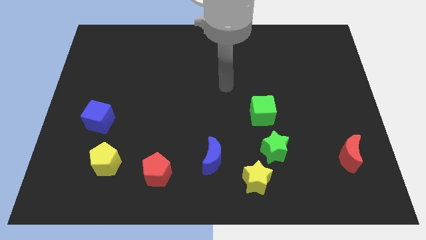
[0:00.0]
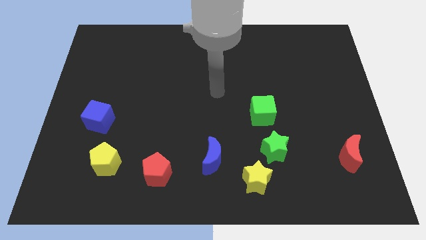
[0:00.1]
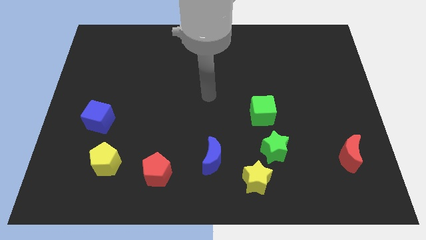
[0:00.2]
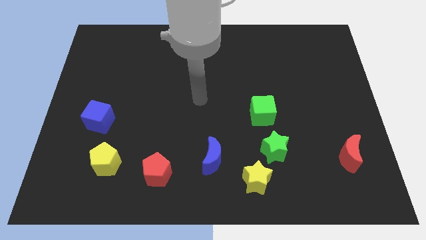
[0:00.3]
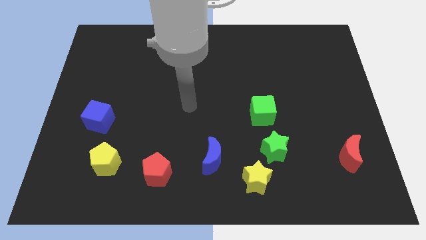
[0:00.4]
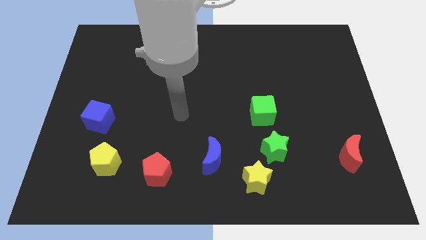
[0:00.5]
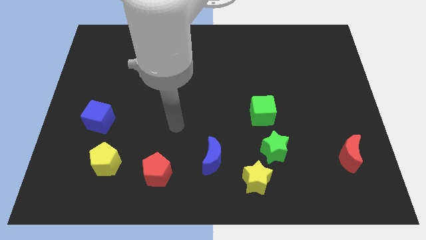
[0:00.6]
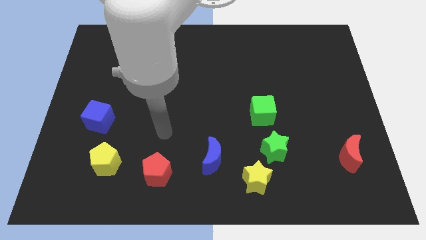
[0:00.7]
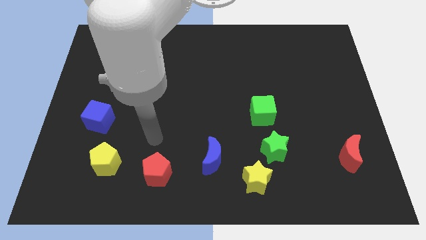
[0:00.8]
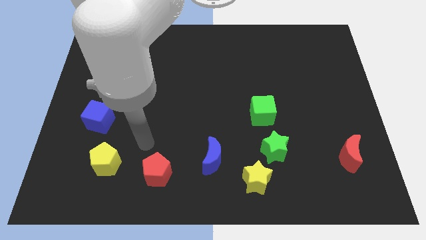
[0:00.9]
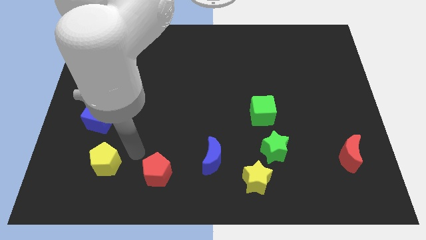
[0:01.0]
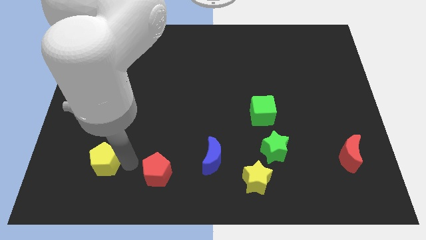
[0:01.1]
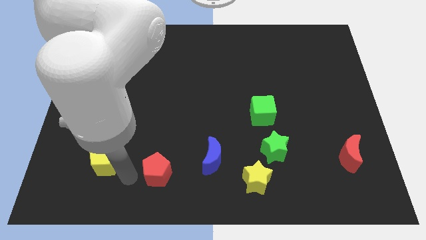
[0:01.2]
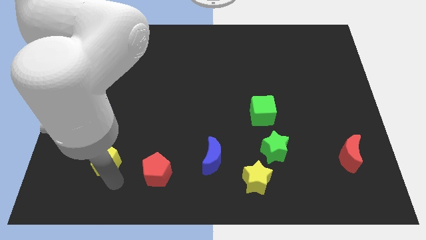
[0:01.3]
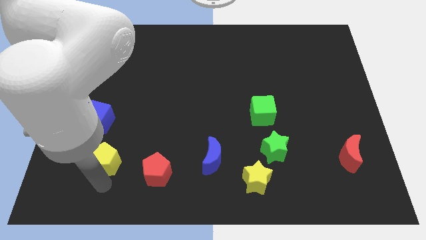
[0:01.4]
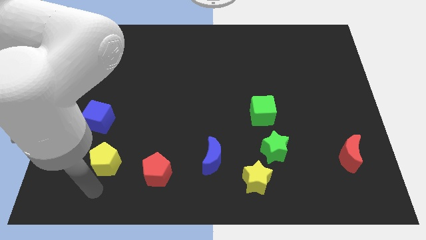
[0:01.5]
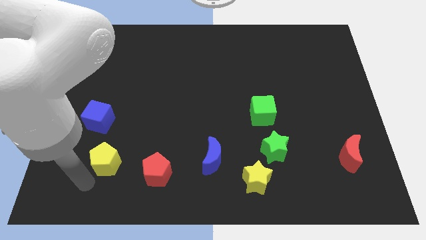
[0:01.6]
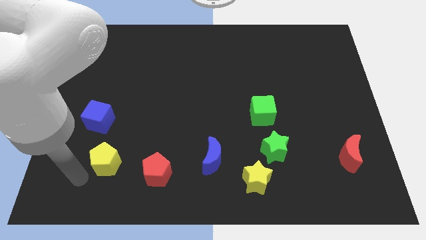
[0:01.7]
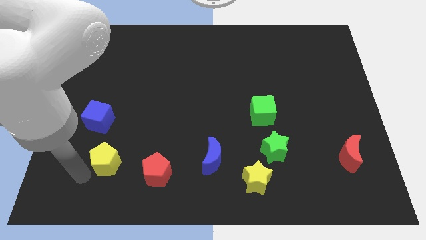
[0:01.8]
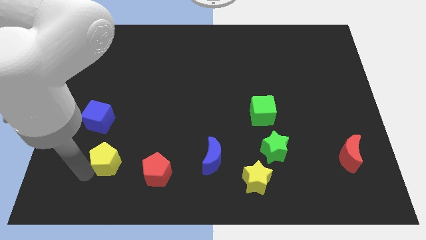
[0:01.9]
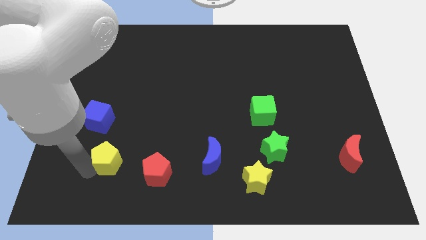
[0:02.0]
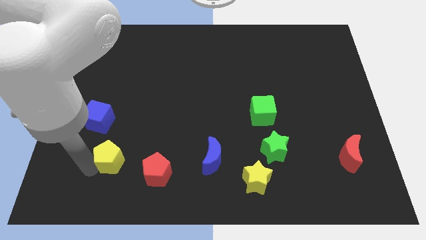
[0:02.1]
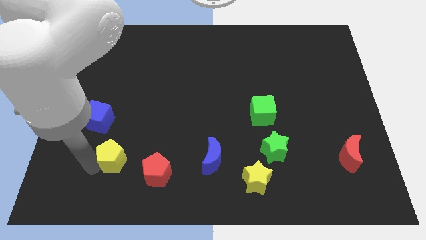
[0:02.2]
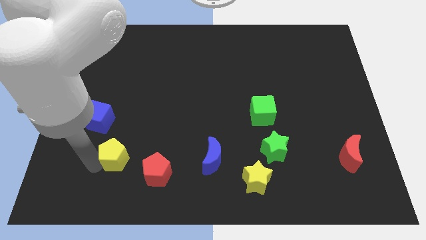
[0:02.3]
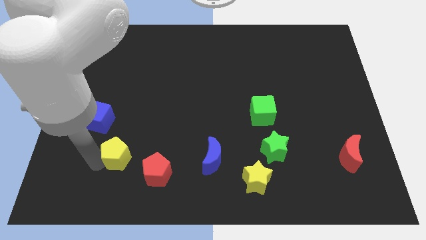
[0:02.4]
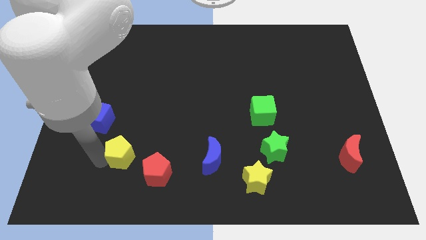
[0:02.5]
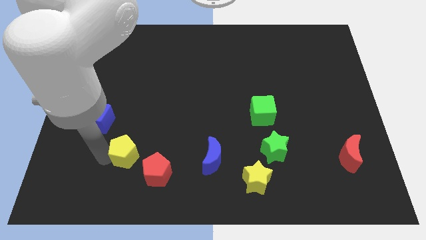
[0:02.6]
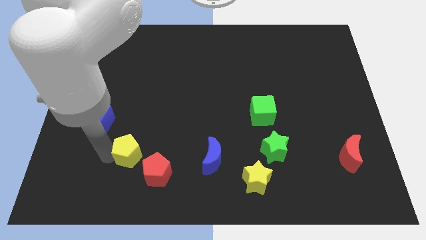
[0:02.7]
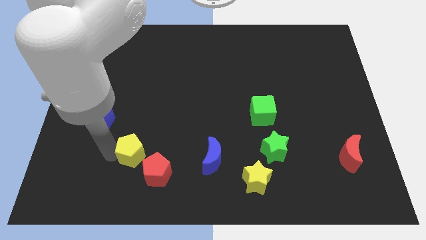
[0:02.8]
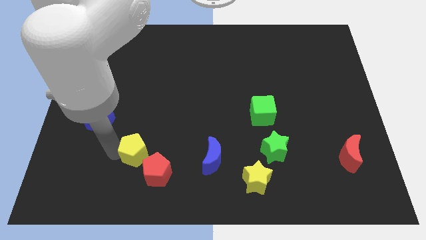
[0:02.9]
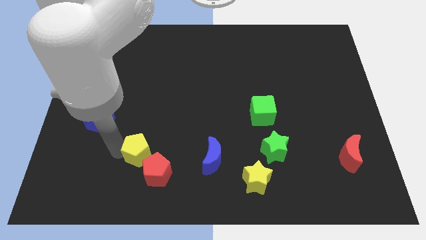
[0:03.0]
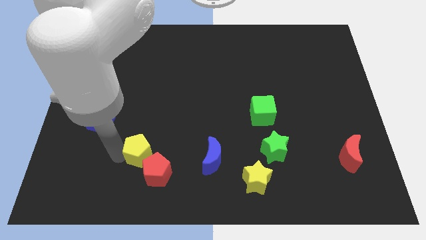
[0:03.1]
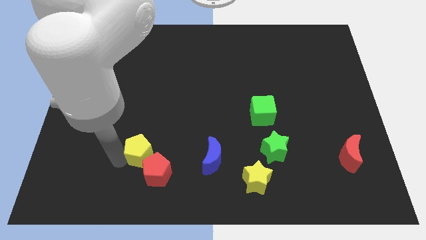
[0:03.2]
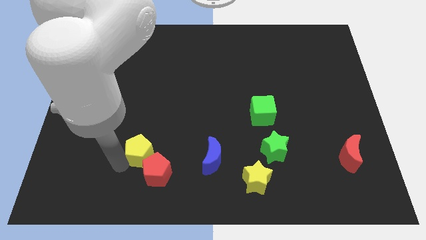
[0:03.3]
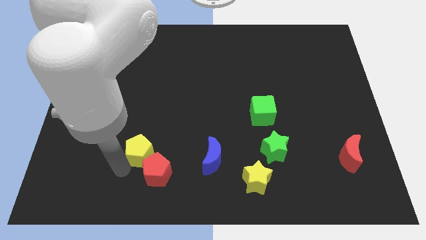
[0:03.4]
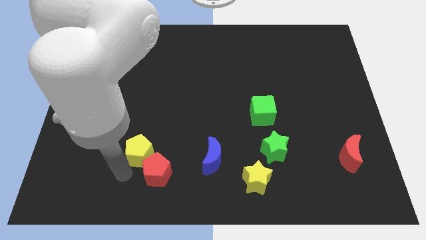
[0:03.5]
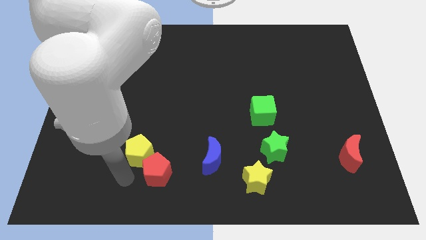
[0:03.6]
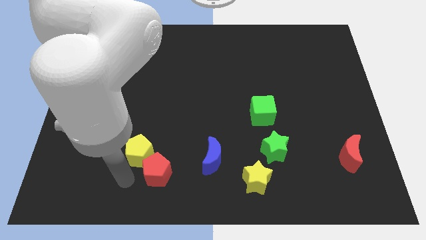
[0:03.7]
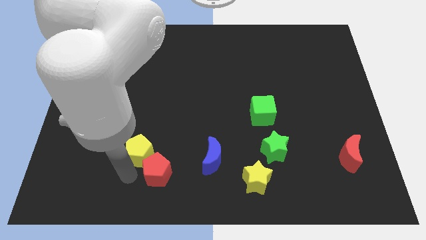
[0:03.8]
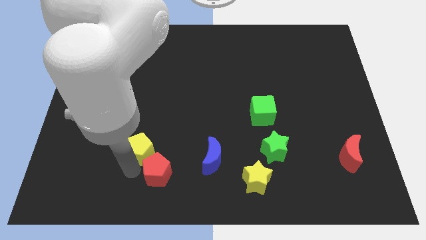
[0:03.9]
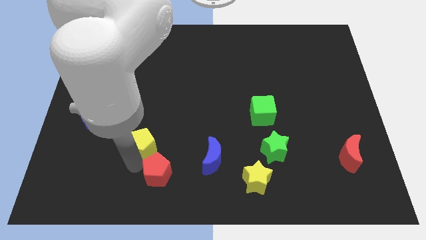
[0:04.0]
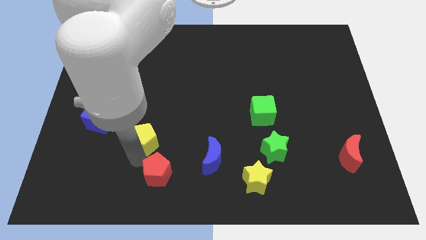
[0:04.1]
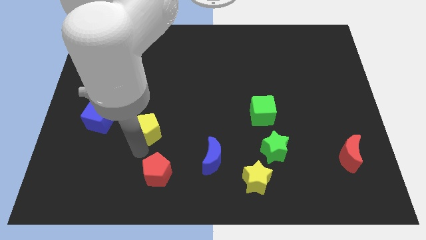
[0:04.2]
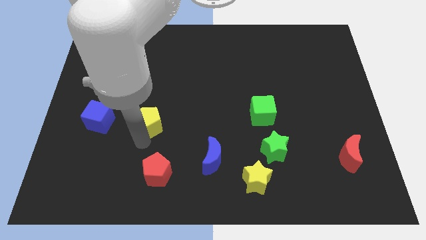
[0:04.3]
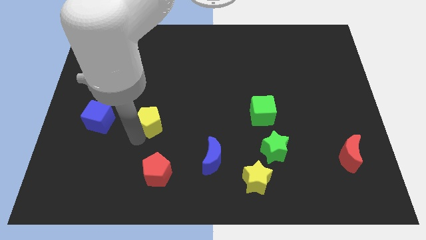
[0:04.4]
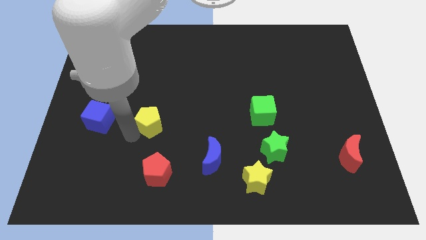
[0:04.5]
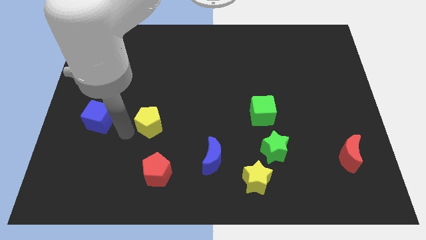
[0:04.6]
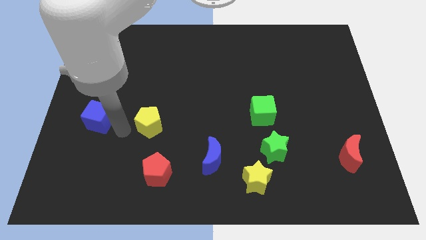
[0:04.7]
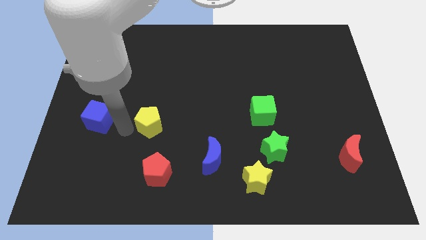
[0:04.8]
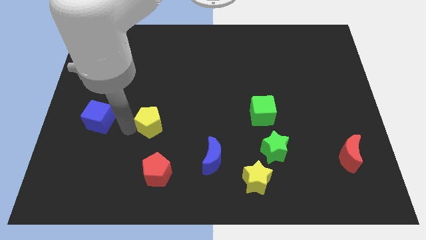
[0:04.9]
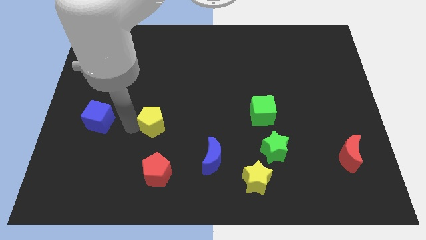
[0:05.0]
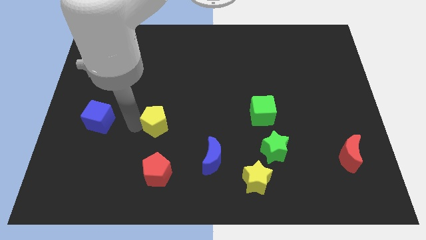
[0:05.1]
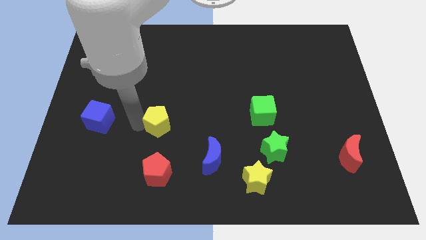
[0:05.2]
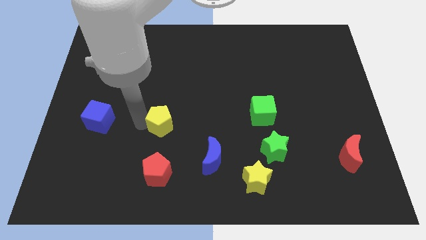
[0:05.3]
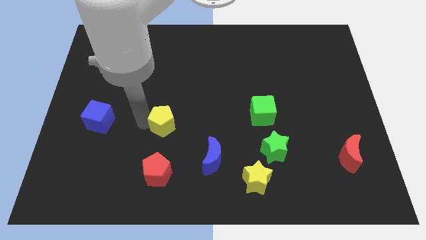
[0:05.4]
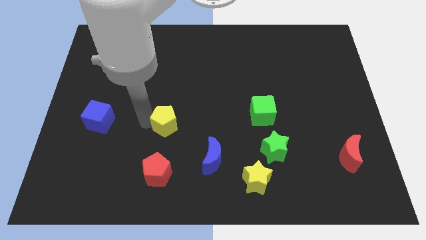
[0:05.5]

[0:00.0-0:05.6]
put the yellow pentagon to the center of the board

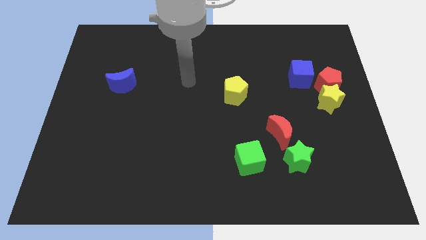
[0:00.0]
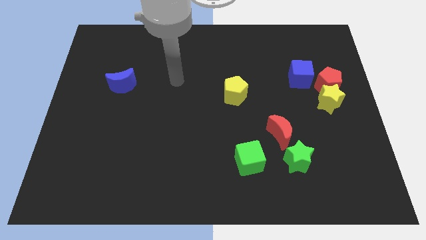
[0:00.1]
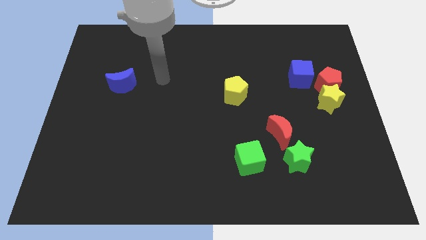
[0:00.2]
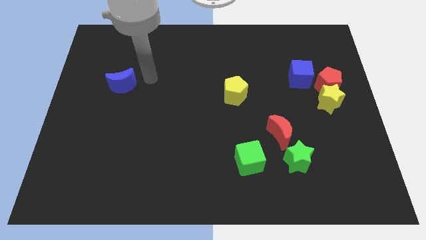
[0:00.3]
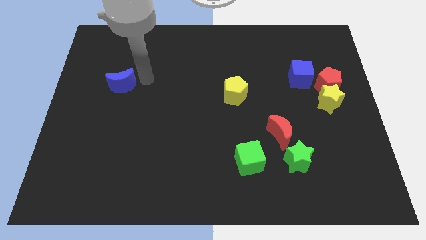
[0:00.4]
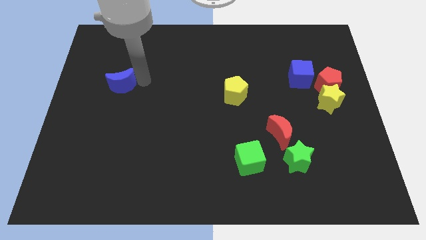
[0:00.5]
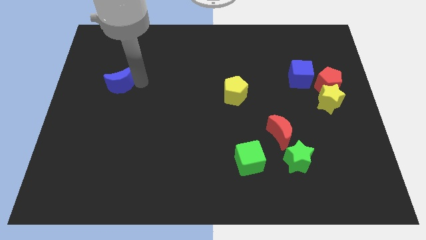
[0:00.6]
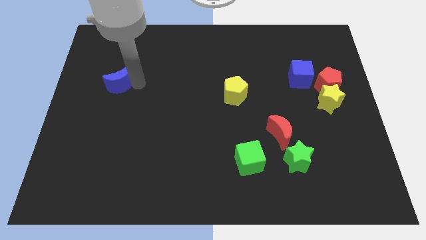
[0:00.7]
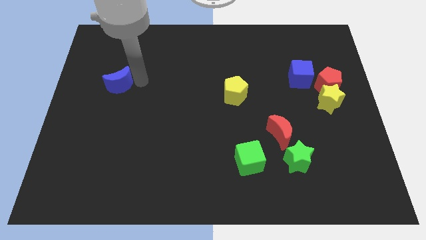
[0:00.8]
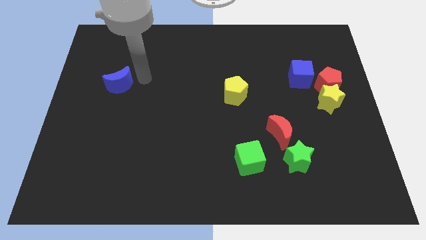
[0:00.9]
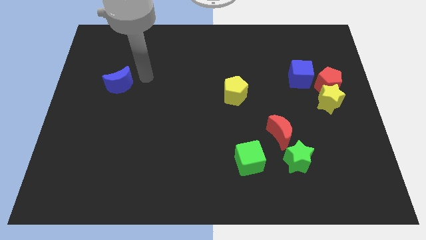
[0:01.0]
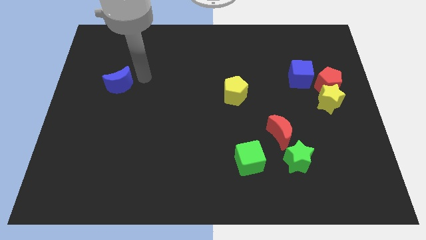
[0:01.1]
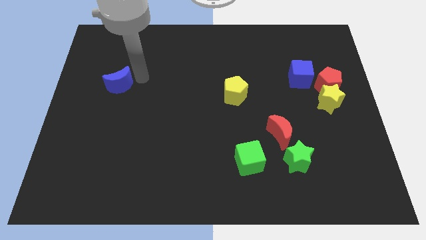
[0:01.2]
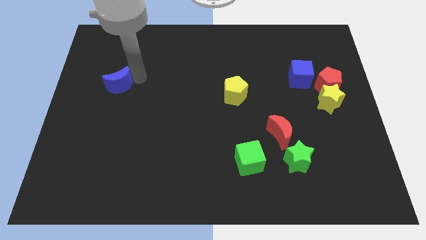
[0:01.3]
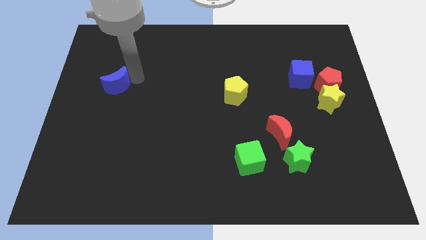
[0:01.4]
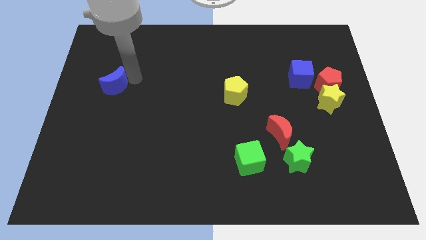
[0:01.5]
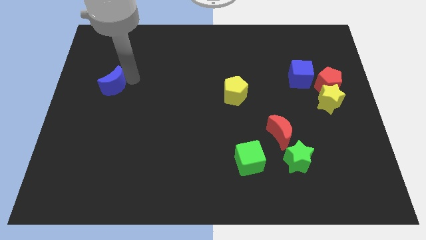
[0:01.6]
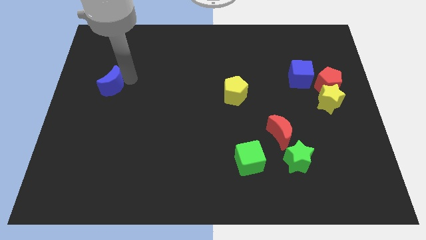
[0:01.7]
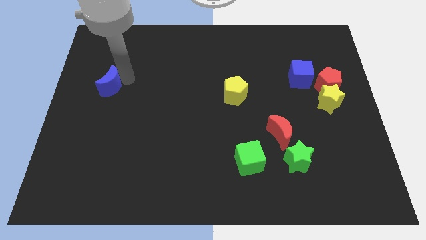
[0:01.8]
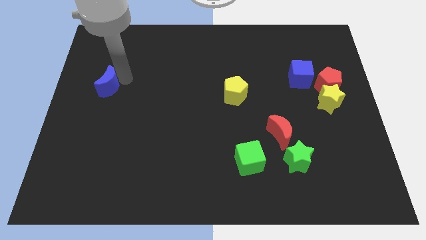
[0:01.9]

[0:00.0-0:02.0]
put the blue moon to the left side of the board
